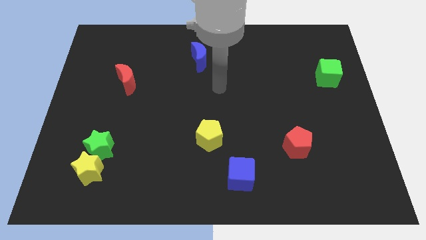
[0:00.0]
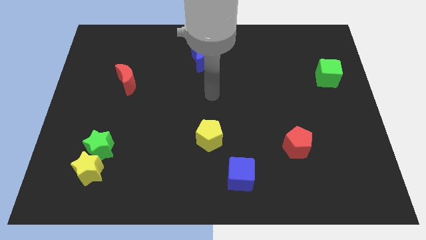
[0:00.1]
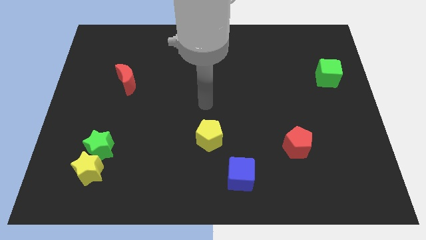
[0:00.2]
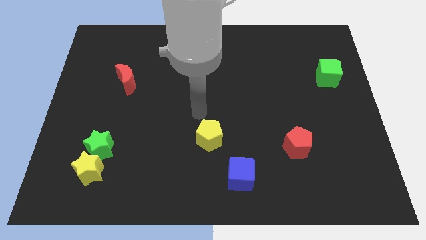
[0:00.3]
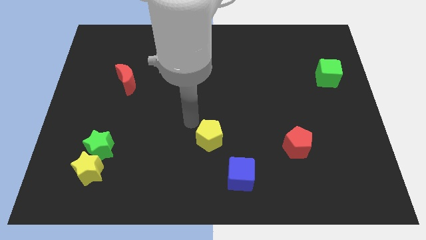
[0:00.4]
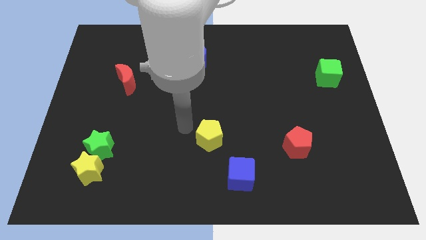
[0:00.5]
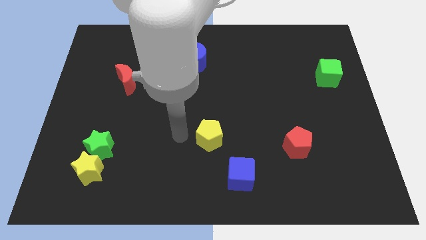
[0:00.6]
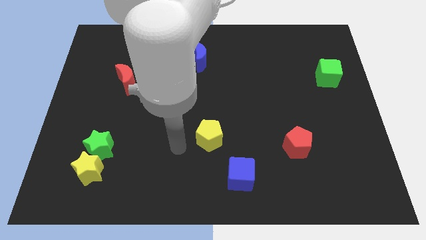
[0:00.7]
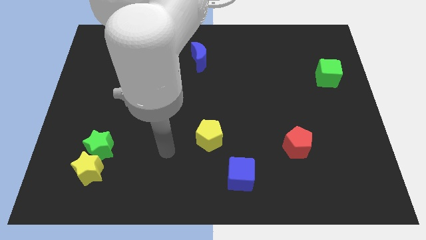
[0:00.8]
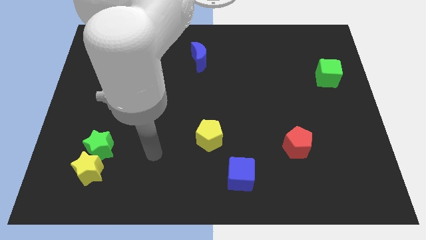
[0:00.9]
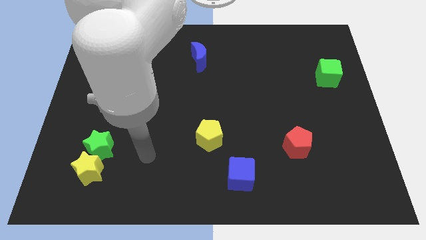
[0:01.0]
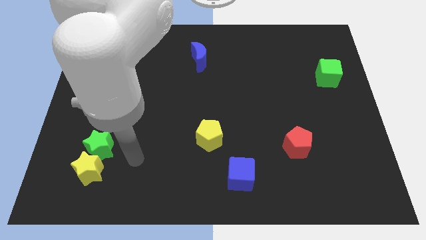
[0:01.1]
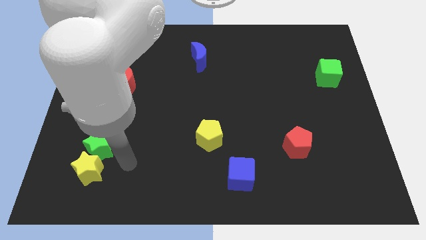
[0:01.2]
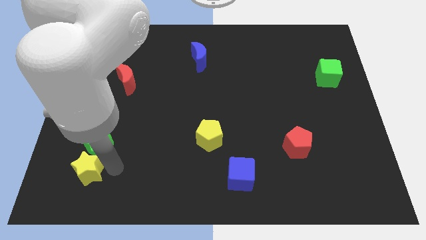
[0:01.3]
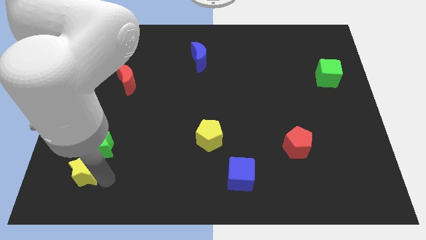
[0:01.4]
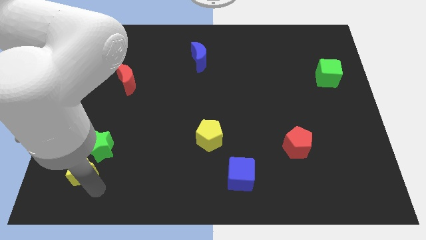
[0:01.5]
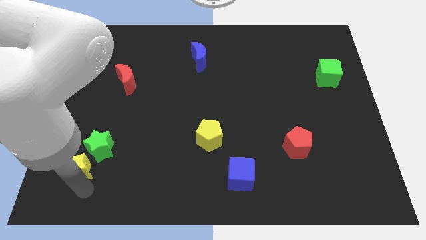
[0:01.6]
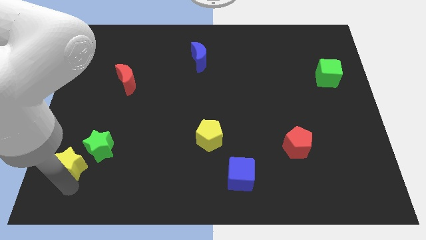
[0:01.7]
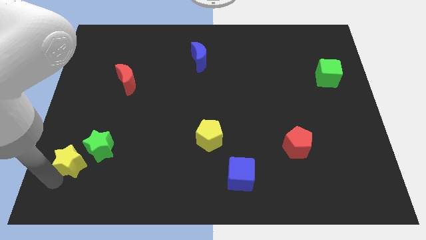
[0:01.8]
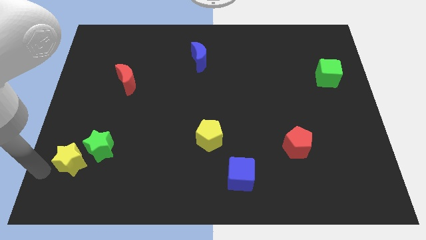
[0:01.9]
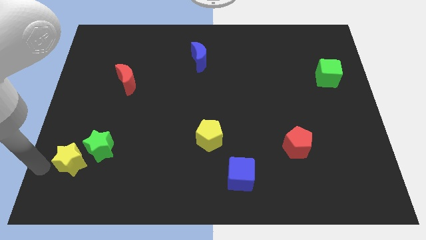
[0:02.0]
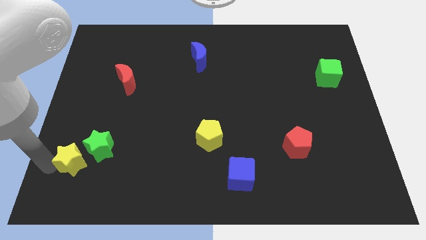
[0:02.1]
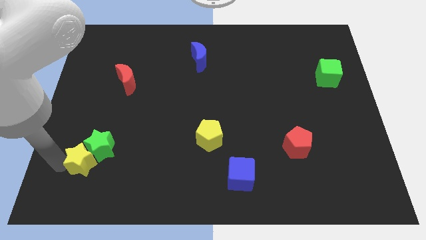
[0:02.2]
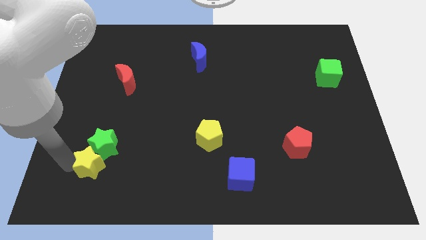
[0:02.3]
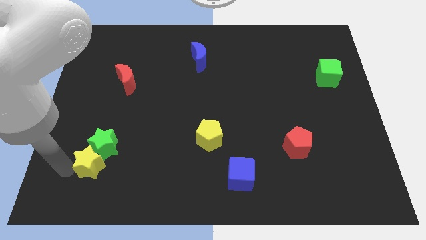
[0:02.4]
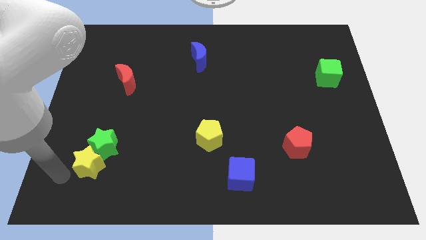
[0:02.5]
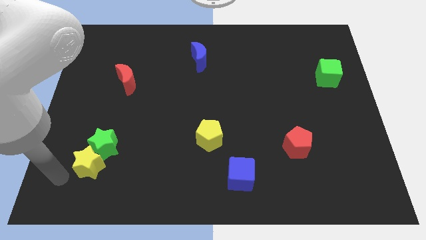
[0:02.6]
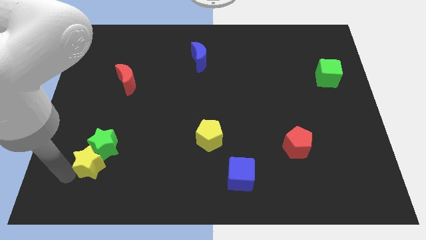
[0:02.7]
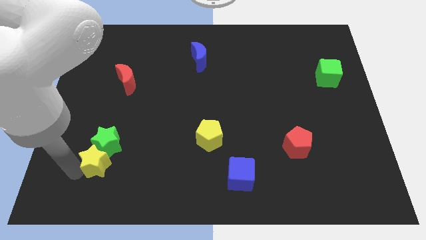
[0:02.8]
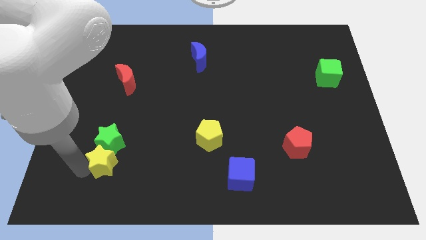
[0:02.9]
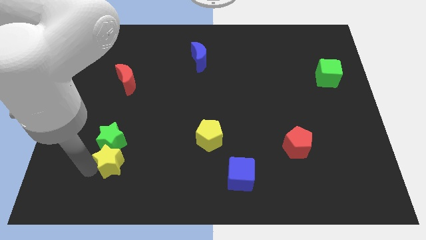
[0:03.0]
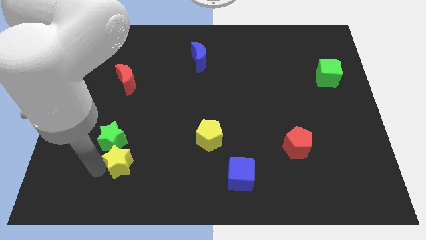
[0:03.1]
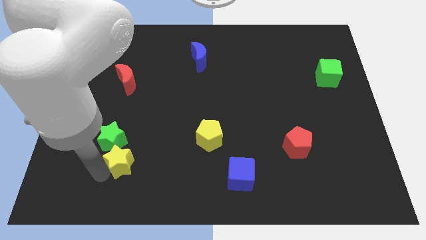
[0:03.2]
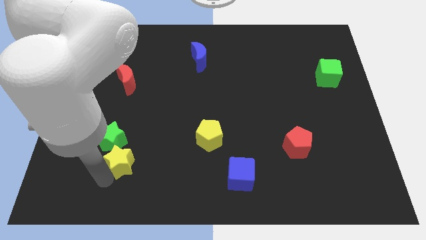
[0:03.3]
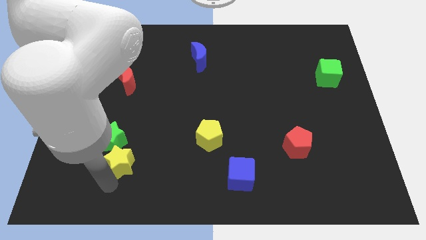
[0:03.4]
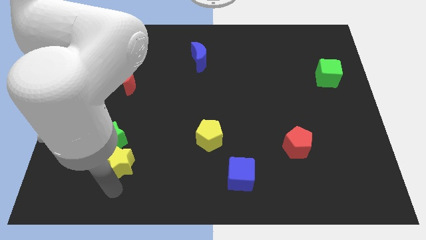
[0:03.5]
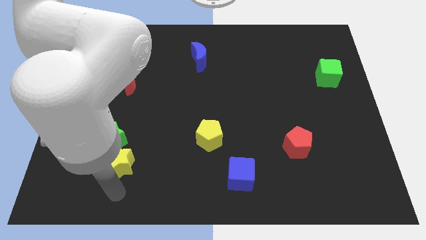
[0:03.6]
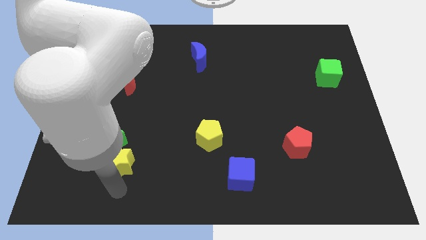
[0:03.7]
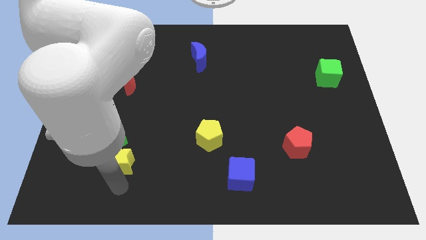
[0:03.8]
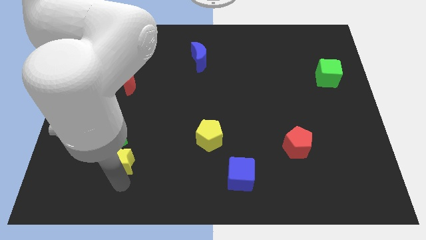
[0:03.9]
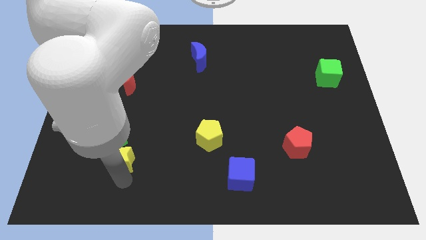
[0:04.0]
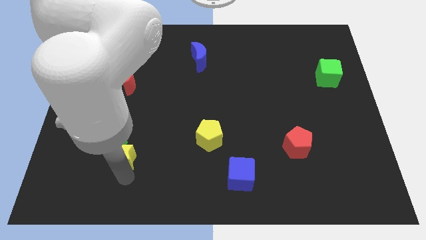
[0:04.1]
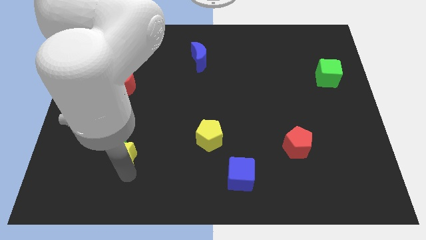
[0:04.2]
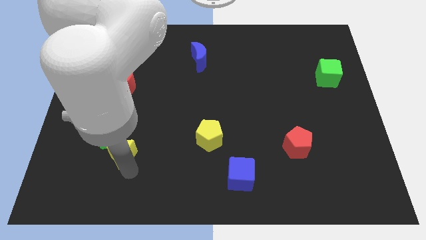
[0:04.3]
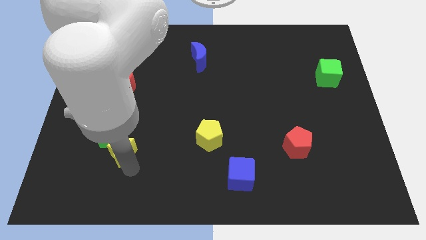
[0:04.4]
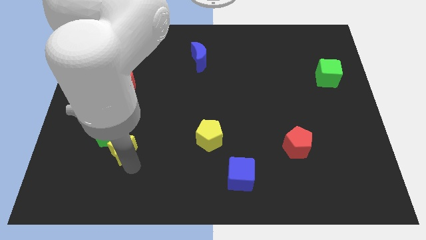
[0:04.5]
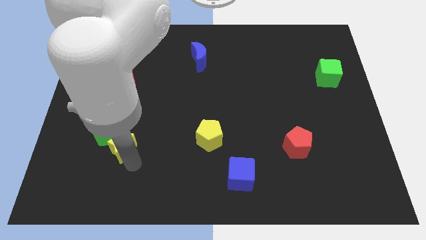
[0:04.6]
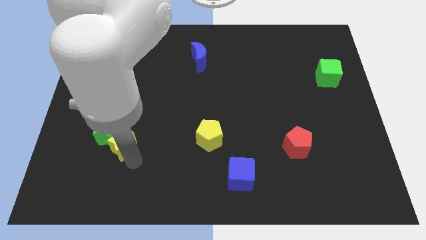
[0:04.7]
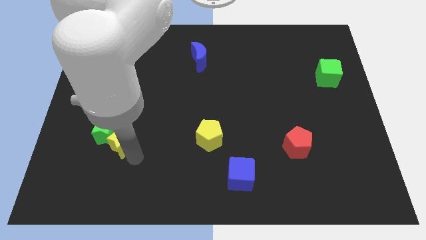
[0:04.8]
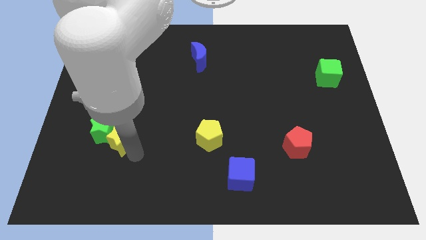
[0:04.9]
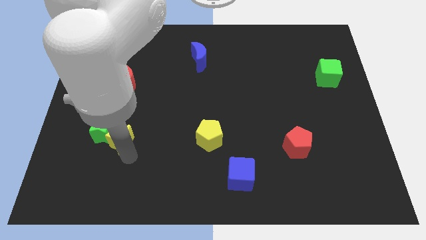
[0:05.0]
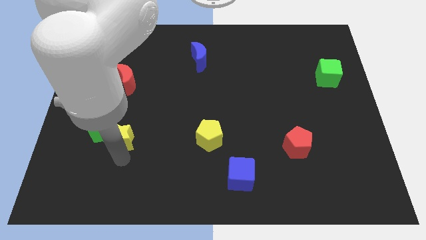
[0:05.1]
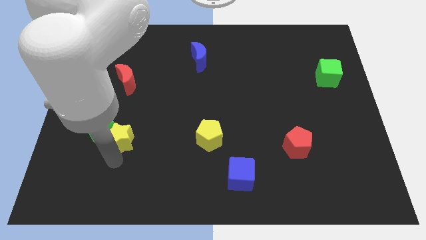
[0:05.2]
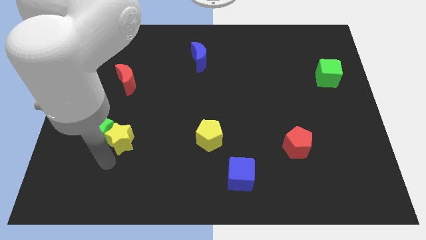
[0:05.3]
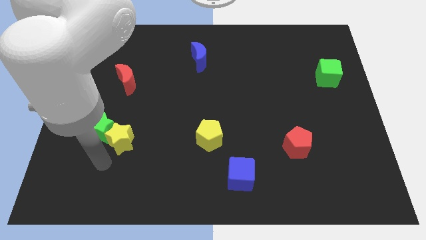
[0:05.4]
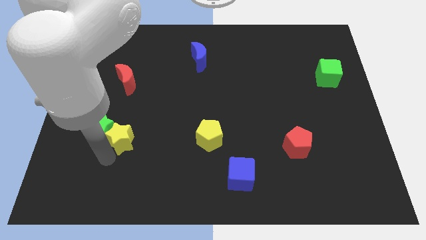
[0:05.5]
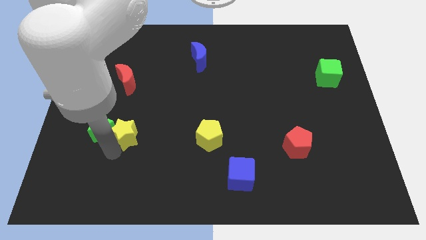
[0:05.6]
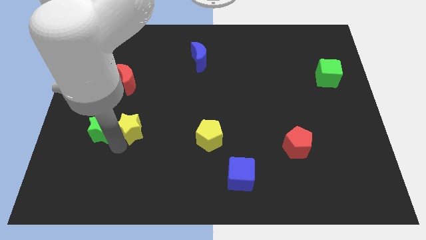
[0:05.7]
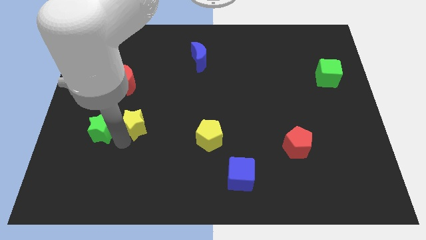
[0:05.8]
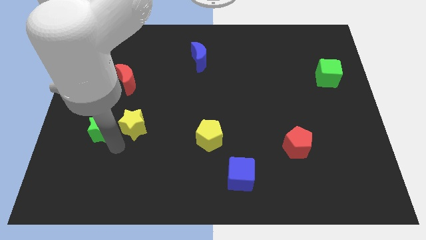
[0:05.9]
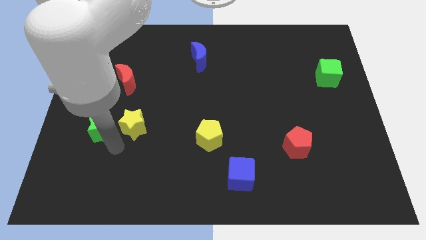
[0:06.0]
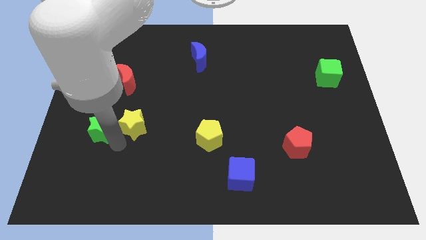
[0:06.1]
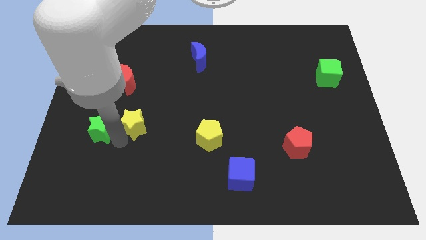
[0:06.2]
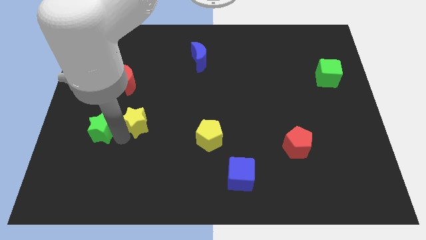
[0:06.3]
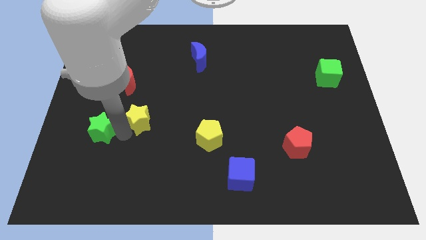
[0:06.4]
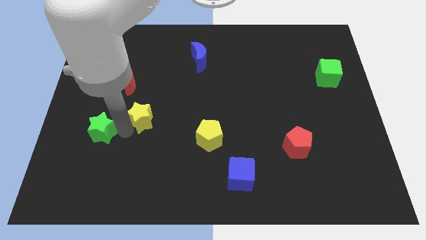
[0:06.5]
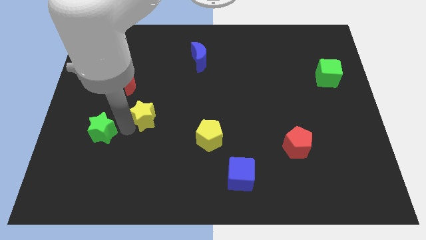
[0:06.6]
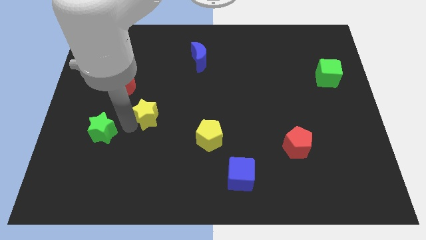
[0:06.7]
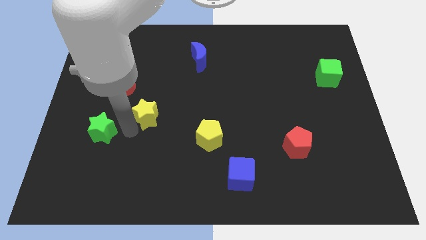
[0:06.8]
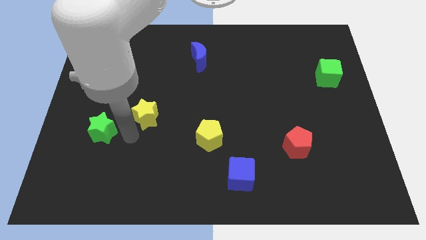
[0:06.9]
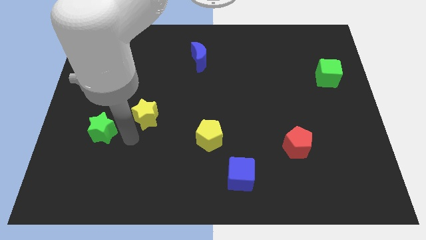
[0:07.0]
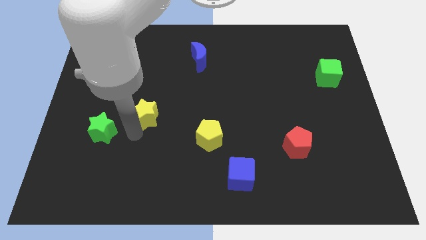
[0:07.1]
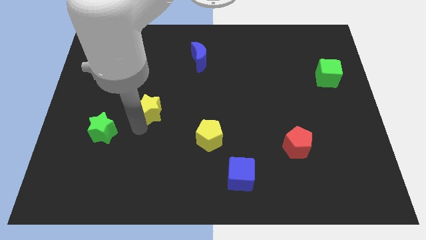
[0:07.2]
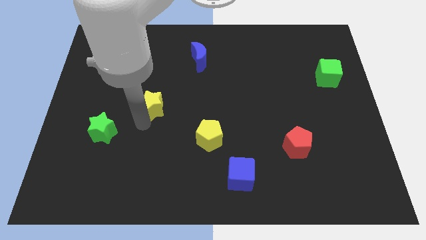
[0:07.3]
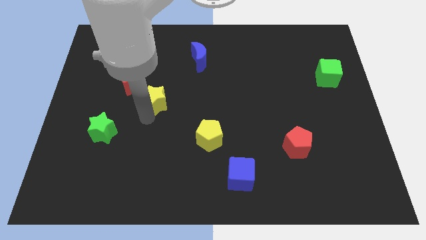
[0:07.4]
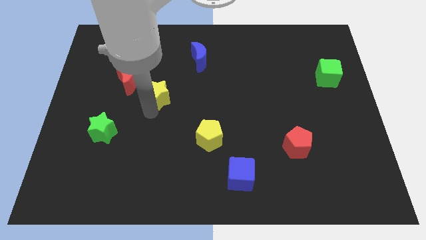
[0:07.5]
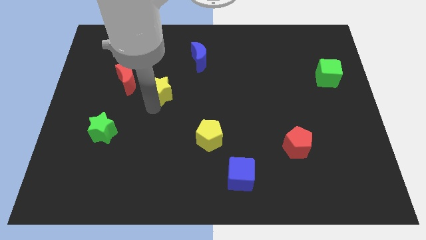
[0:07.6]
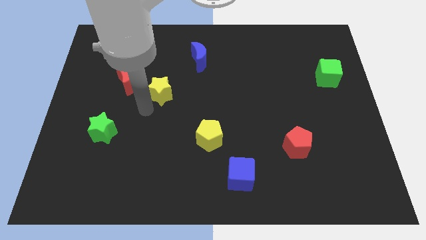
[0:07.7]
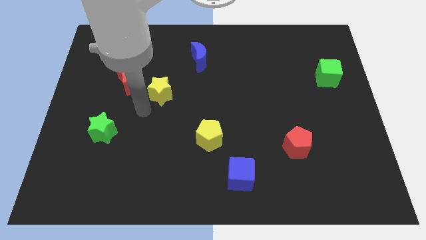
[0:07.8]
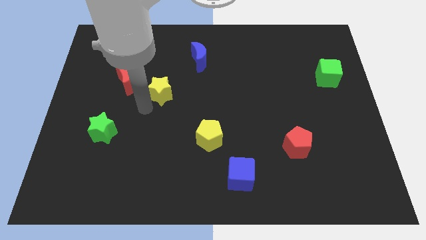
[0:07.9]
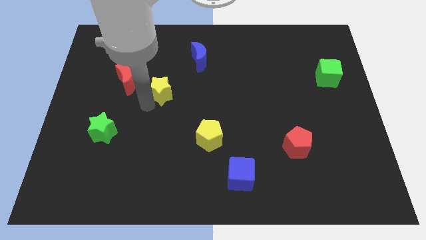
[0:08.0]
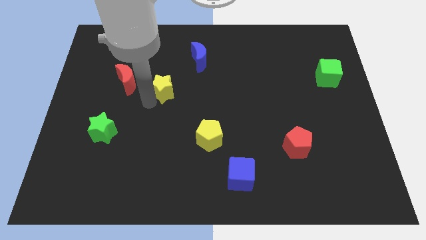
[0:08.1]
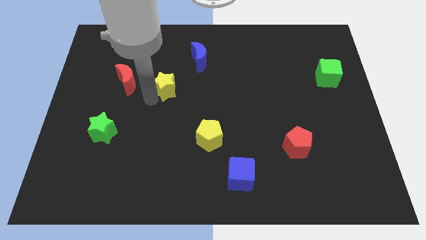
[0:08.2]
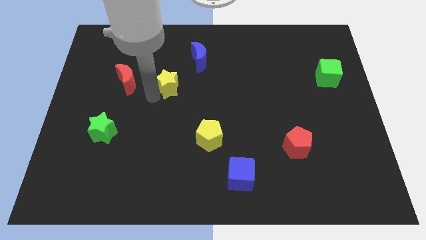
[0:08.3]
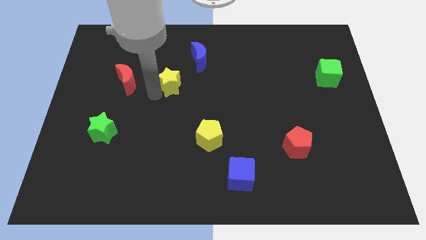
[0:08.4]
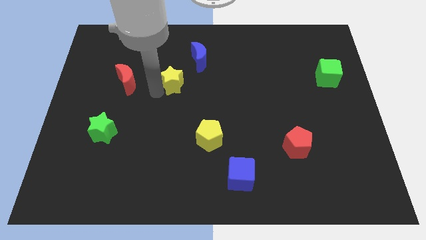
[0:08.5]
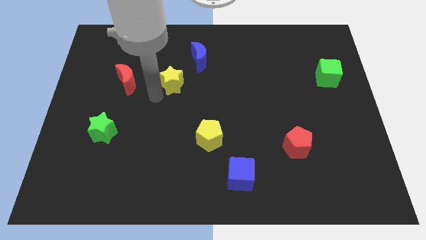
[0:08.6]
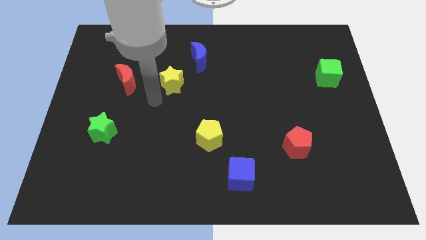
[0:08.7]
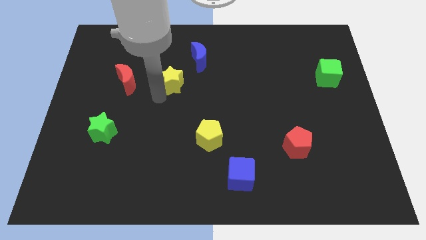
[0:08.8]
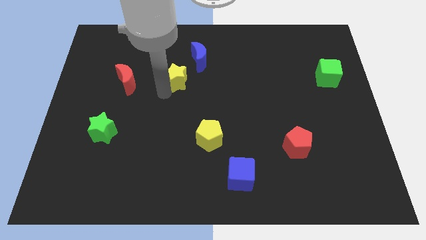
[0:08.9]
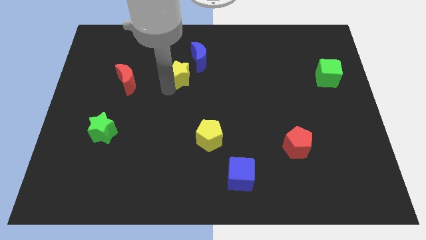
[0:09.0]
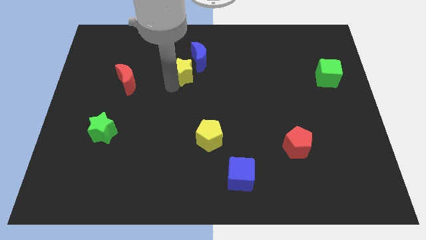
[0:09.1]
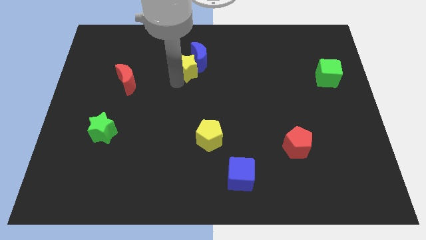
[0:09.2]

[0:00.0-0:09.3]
push the yellow star close to the blue moon
